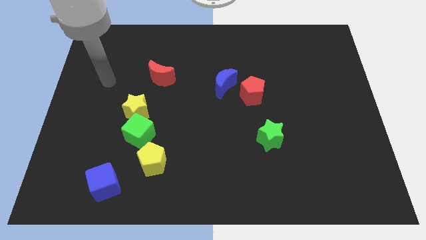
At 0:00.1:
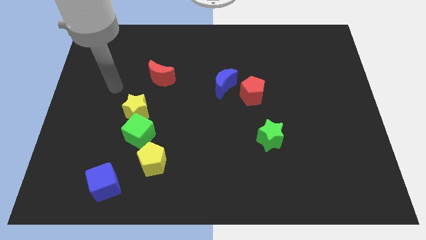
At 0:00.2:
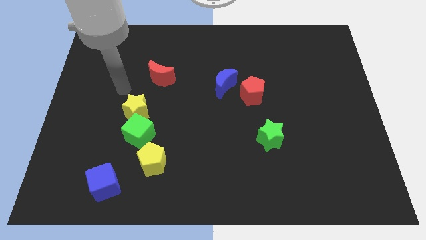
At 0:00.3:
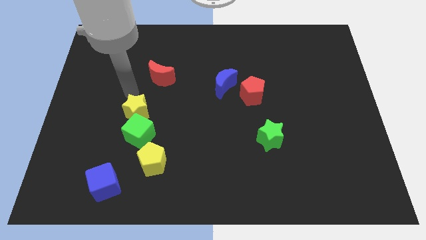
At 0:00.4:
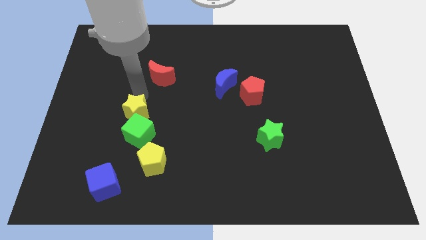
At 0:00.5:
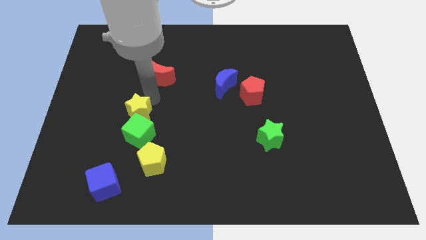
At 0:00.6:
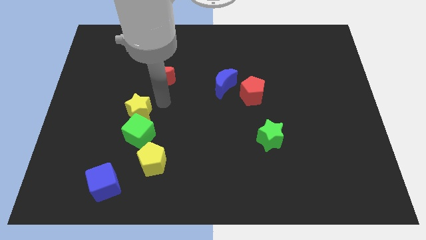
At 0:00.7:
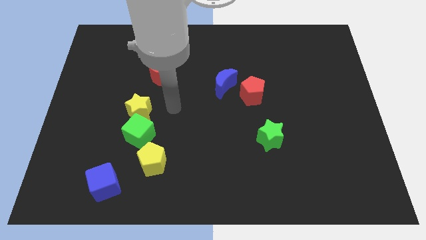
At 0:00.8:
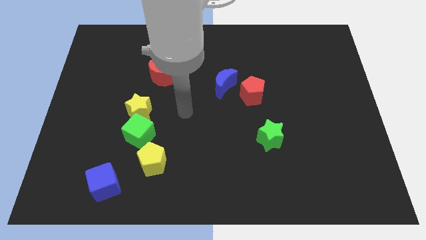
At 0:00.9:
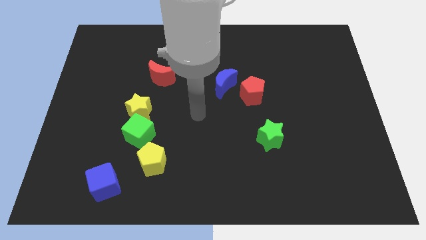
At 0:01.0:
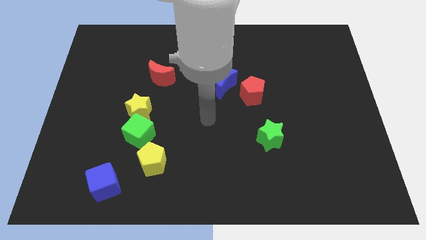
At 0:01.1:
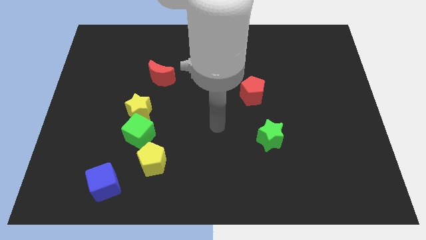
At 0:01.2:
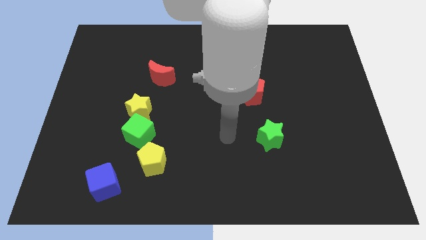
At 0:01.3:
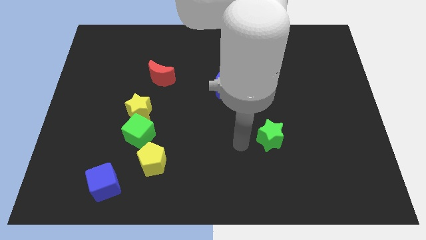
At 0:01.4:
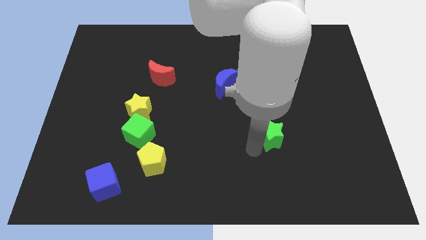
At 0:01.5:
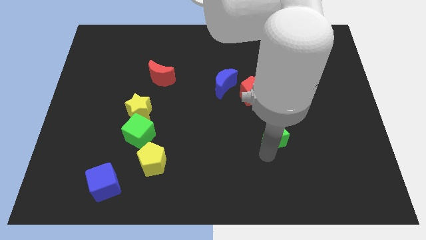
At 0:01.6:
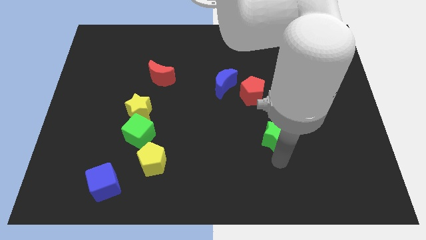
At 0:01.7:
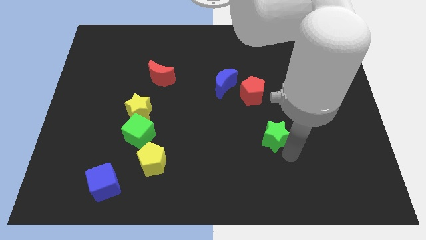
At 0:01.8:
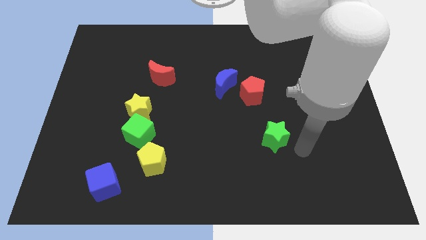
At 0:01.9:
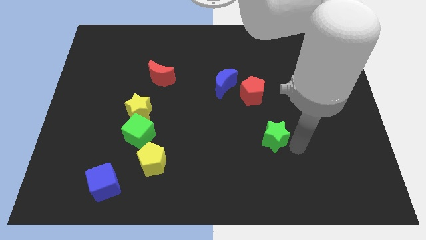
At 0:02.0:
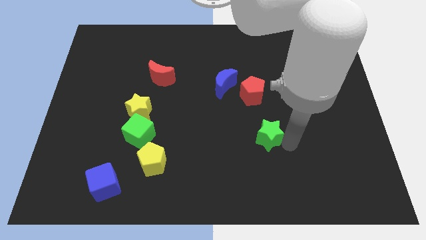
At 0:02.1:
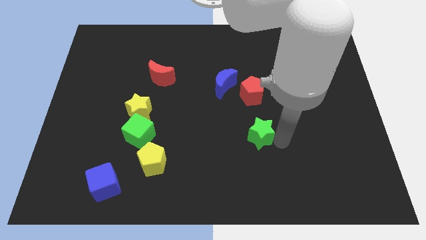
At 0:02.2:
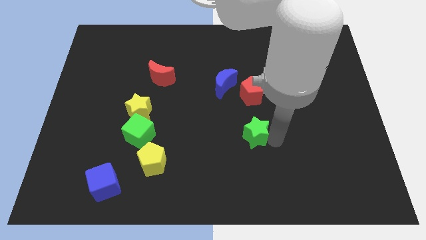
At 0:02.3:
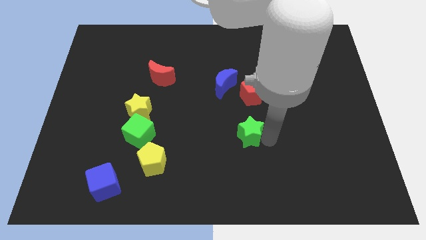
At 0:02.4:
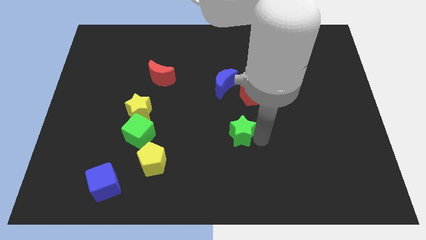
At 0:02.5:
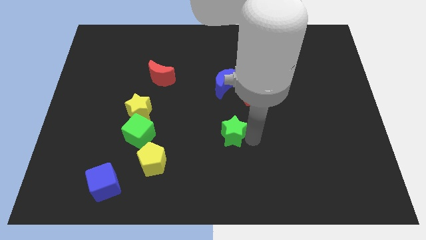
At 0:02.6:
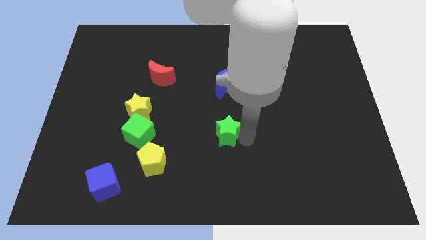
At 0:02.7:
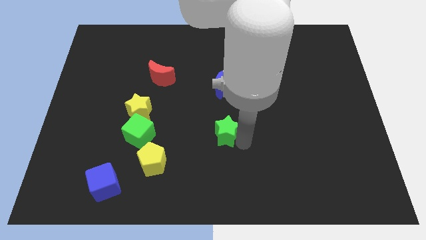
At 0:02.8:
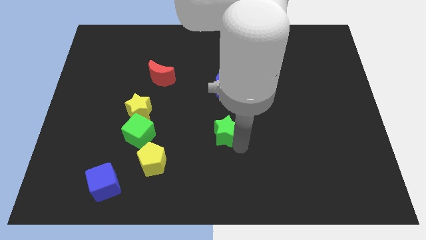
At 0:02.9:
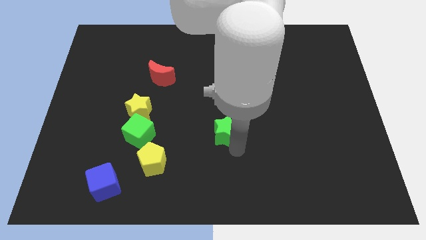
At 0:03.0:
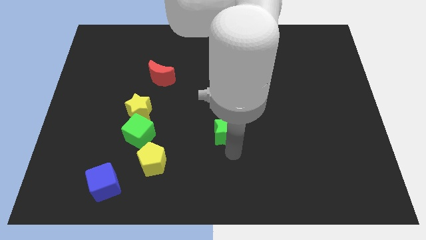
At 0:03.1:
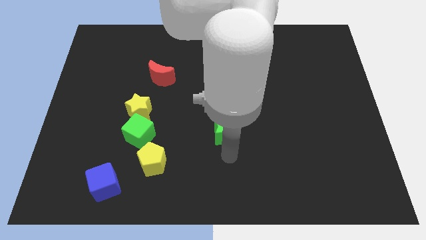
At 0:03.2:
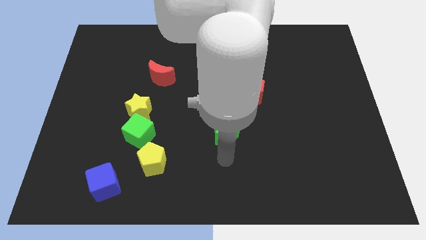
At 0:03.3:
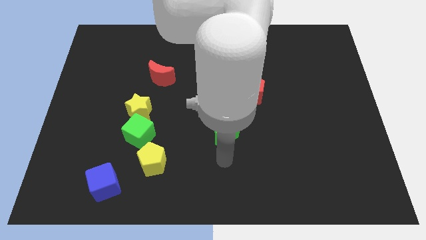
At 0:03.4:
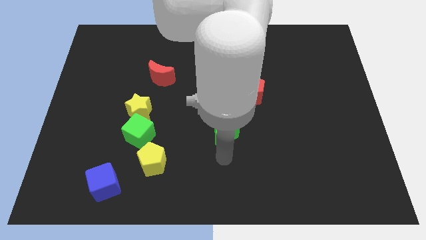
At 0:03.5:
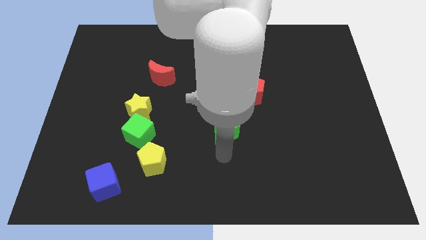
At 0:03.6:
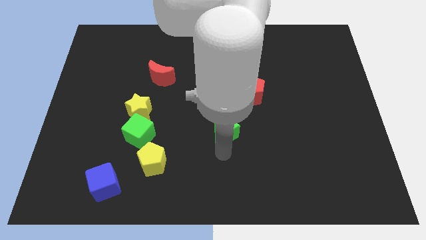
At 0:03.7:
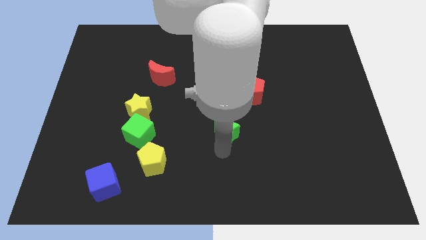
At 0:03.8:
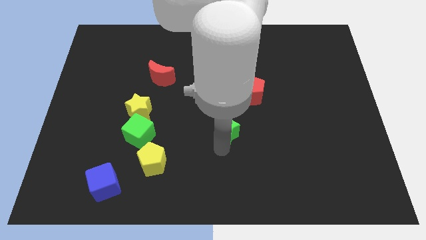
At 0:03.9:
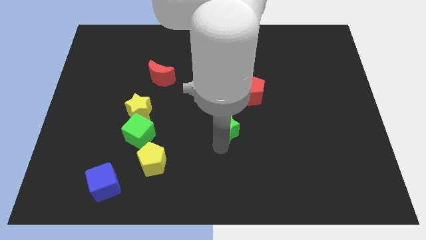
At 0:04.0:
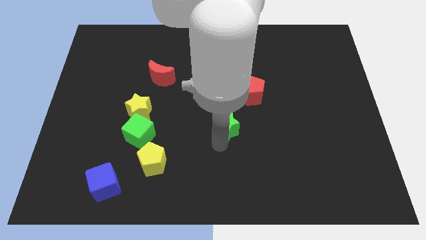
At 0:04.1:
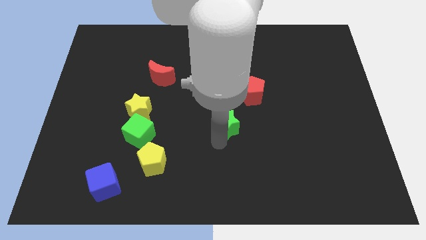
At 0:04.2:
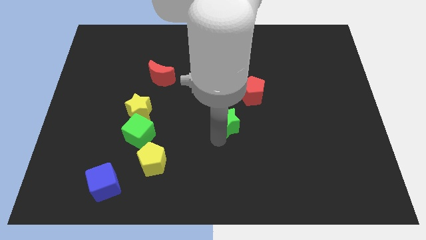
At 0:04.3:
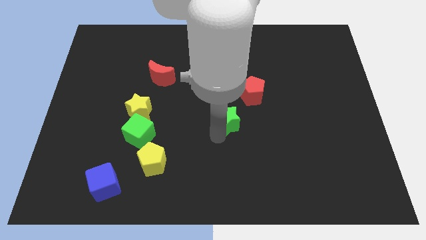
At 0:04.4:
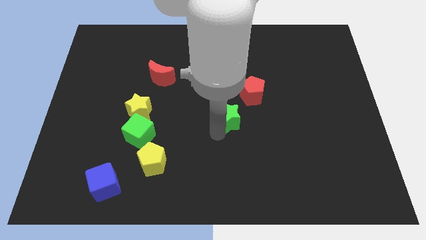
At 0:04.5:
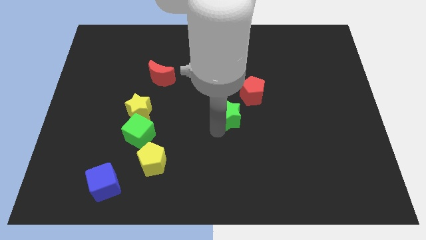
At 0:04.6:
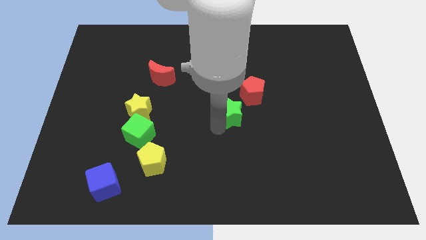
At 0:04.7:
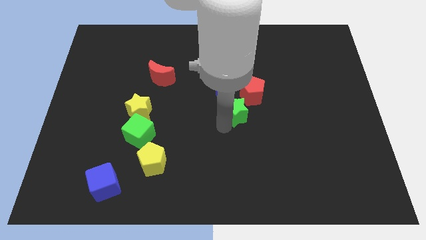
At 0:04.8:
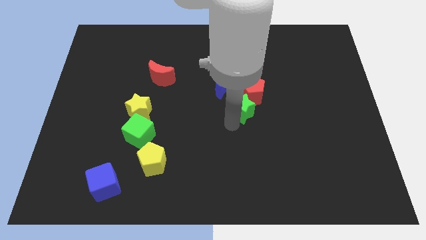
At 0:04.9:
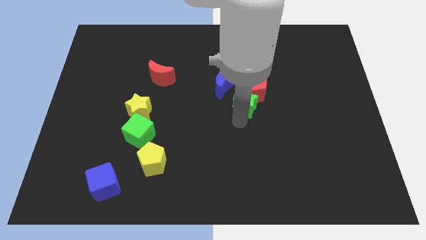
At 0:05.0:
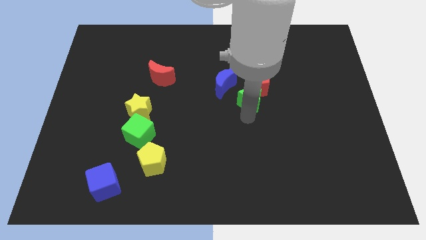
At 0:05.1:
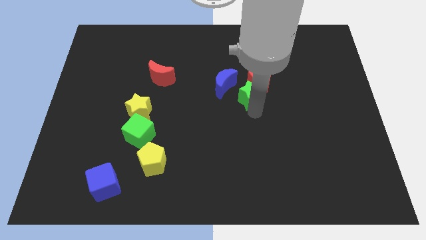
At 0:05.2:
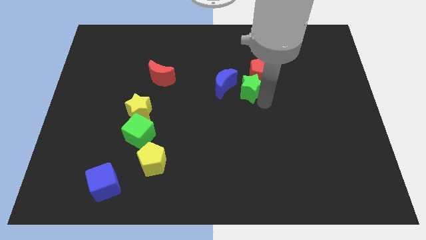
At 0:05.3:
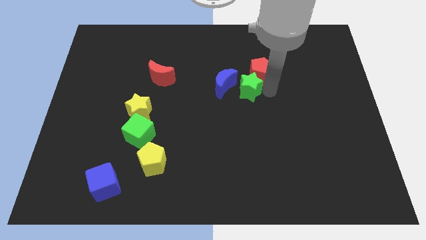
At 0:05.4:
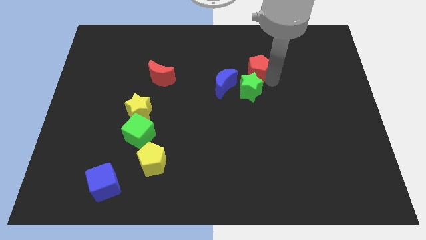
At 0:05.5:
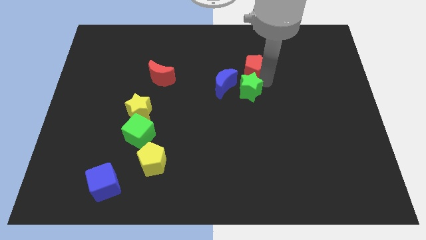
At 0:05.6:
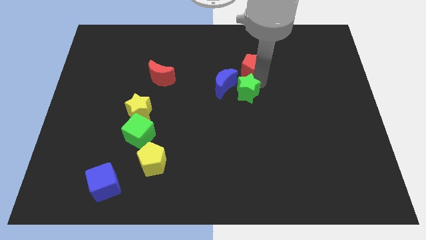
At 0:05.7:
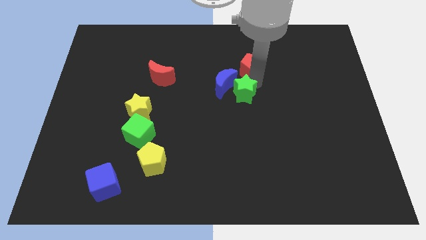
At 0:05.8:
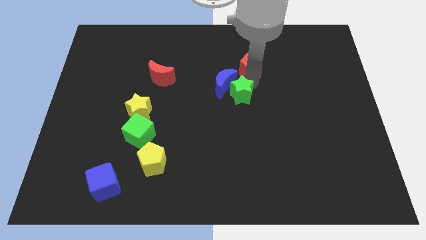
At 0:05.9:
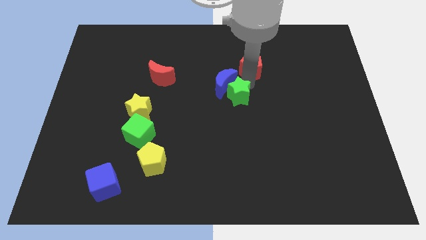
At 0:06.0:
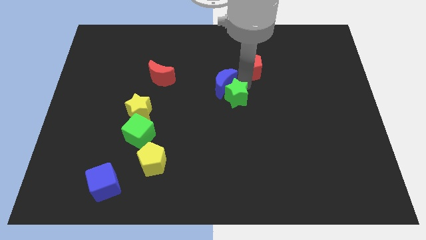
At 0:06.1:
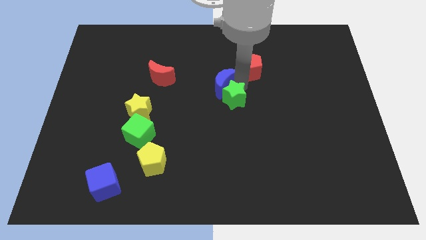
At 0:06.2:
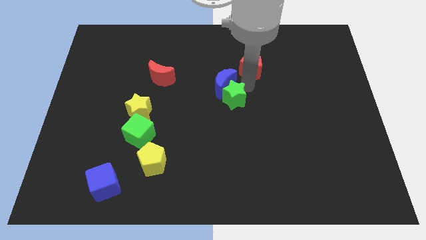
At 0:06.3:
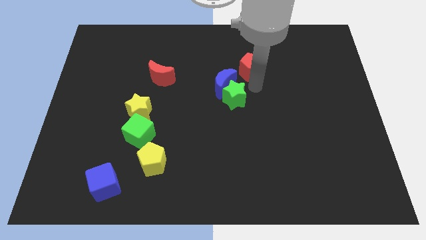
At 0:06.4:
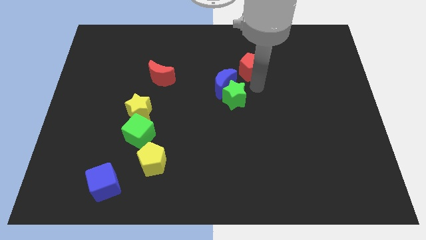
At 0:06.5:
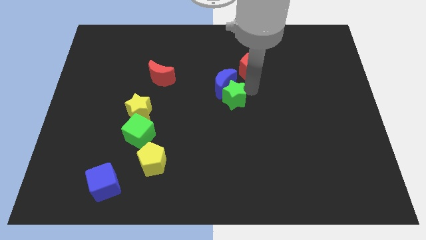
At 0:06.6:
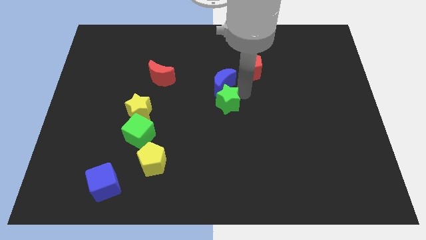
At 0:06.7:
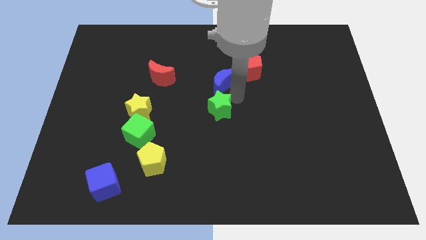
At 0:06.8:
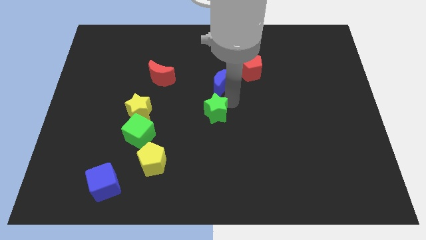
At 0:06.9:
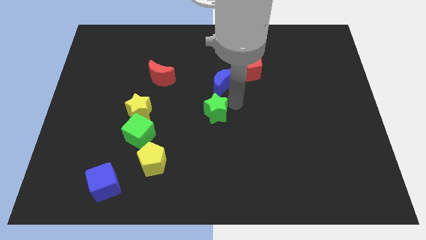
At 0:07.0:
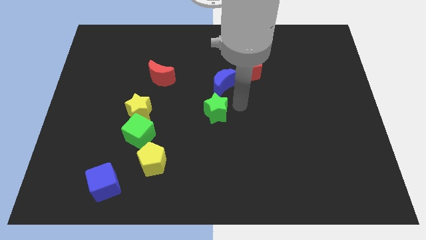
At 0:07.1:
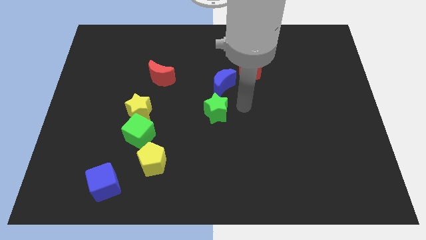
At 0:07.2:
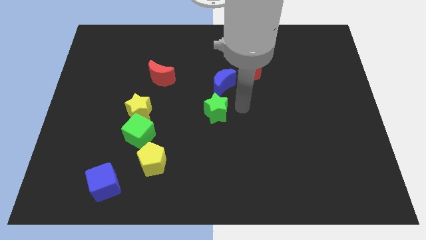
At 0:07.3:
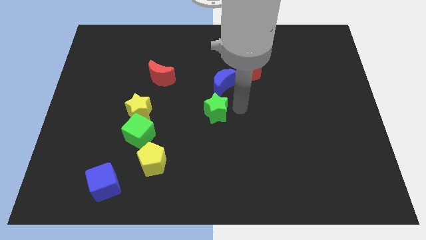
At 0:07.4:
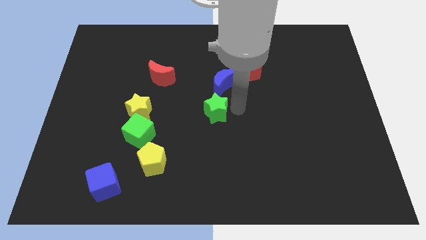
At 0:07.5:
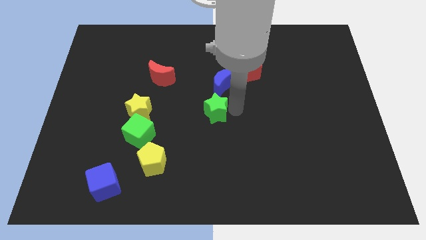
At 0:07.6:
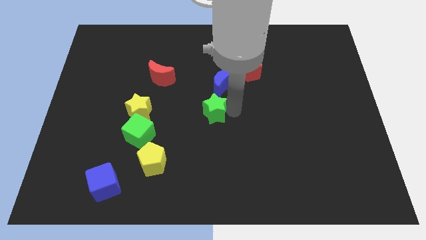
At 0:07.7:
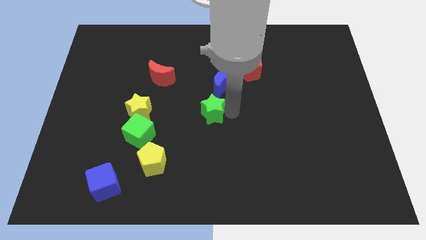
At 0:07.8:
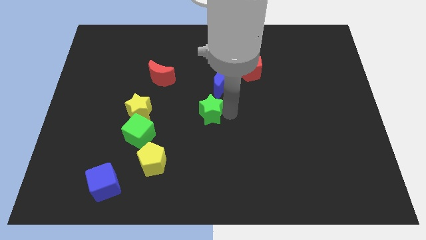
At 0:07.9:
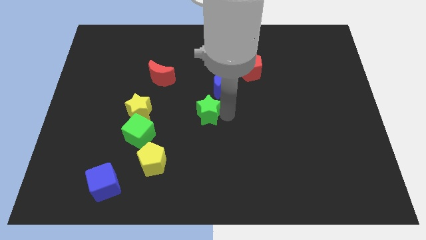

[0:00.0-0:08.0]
push the green star to the right of the yellow star

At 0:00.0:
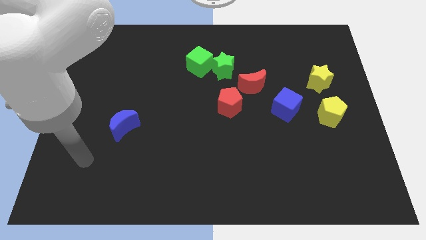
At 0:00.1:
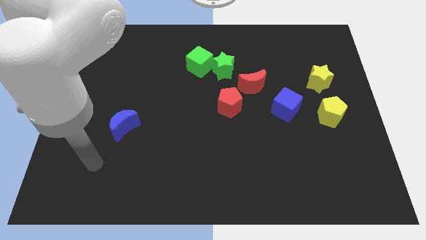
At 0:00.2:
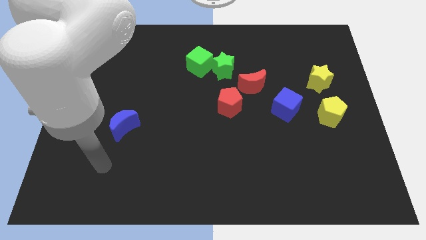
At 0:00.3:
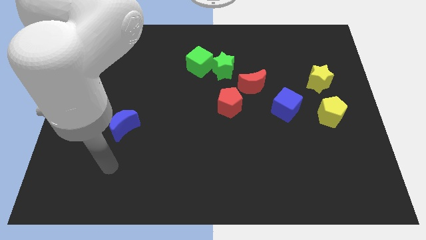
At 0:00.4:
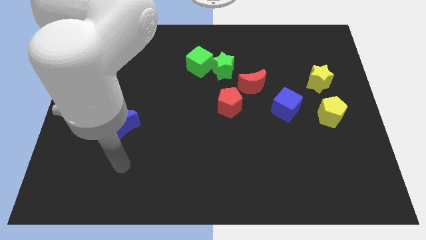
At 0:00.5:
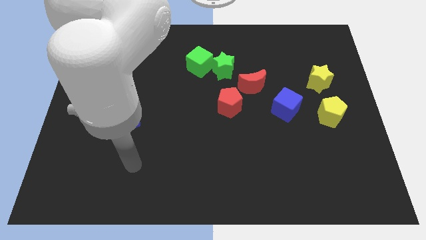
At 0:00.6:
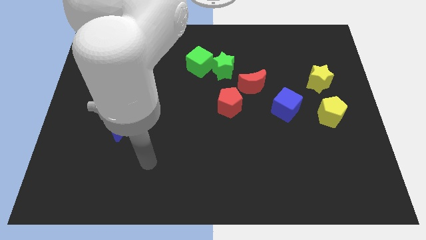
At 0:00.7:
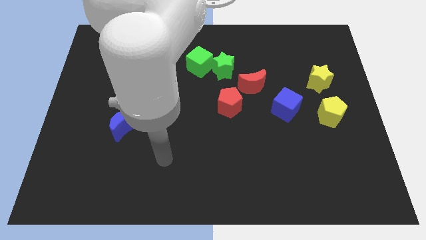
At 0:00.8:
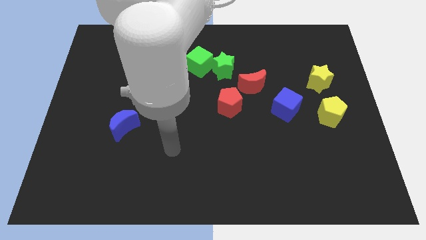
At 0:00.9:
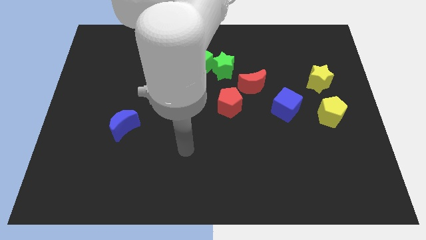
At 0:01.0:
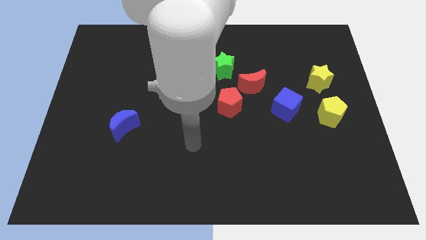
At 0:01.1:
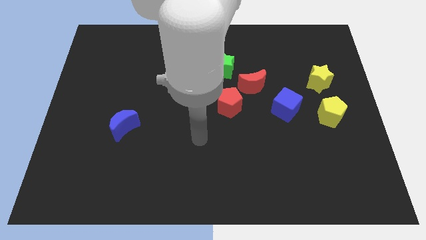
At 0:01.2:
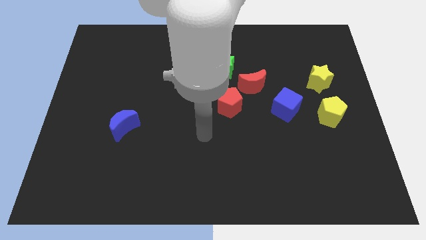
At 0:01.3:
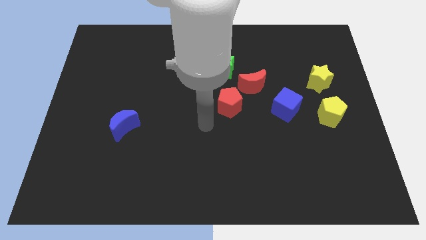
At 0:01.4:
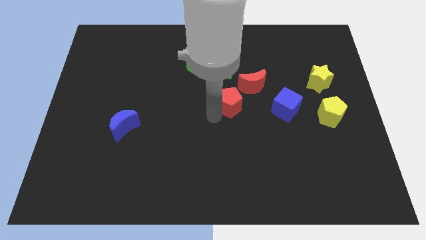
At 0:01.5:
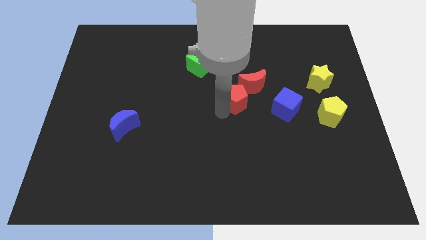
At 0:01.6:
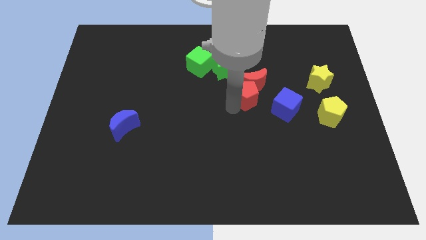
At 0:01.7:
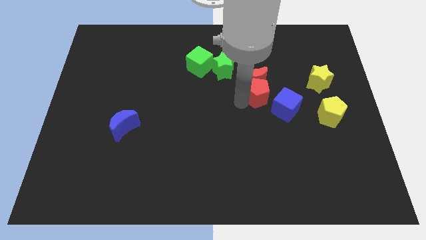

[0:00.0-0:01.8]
put the red moon right of the green star
